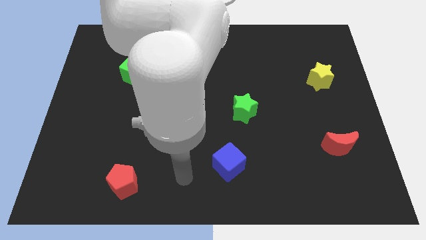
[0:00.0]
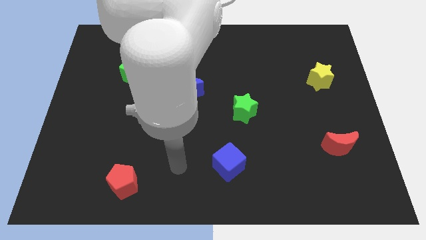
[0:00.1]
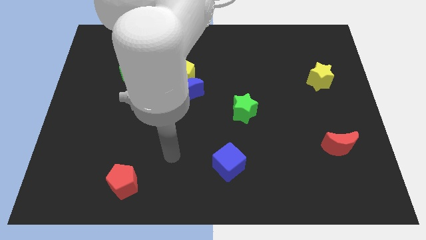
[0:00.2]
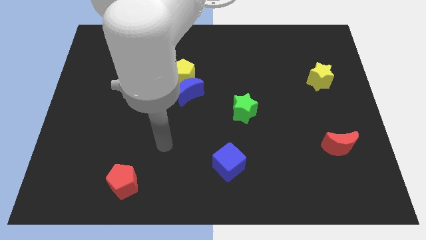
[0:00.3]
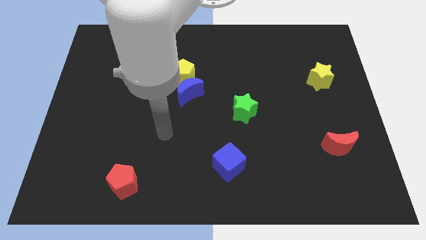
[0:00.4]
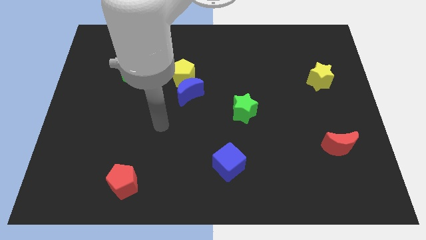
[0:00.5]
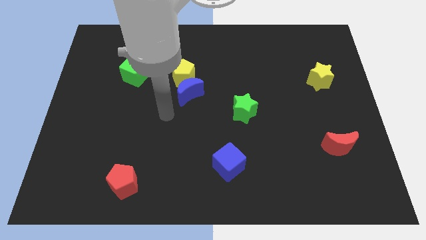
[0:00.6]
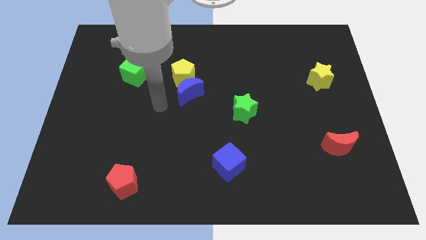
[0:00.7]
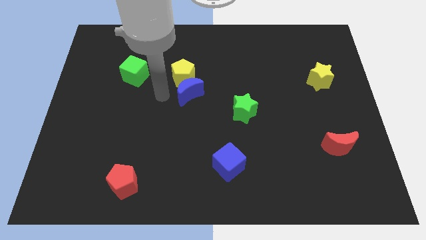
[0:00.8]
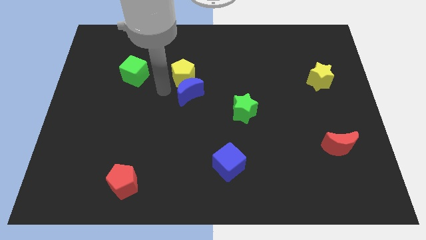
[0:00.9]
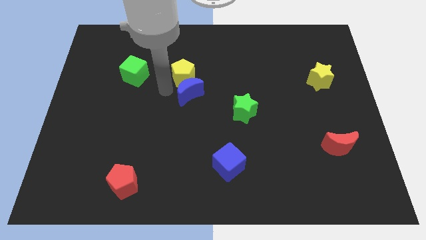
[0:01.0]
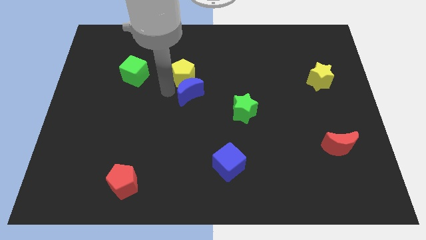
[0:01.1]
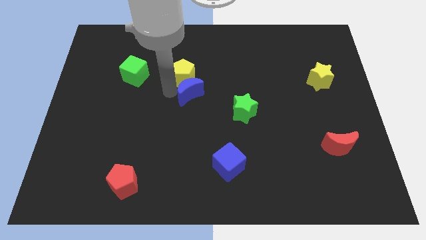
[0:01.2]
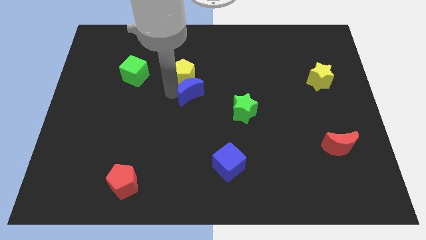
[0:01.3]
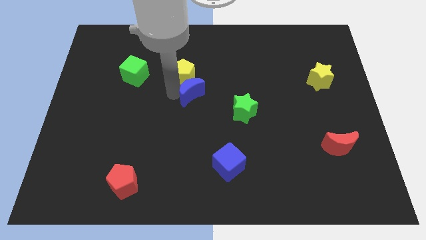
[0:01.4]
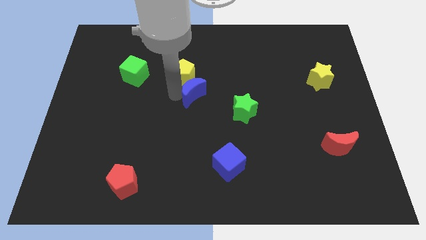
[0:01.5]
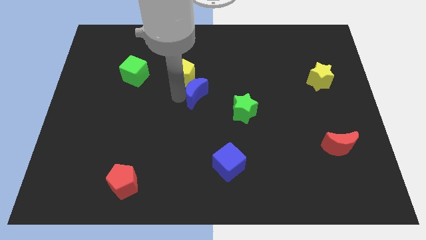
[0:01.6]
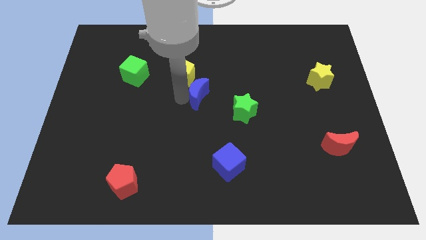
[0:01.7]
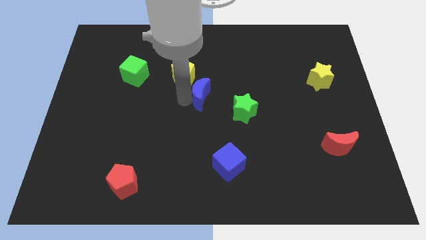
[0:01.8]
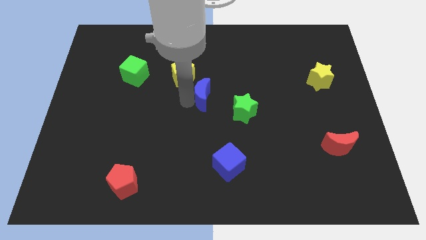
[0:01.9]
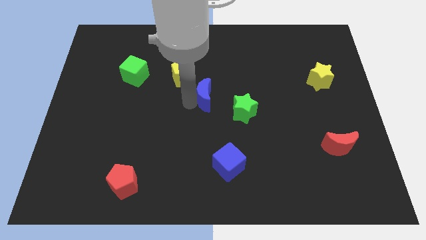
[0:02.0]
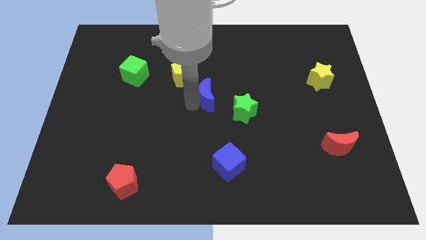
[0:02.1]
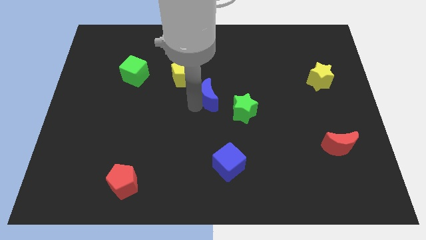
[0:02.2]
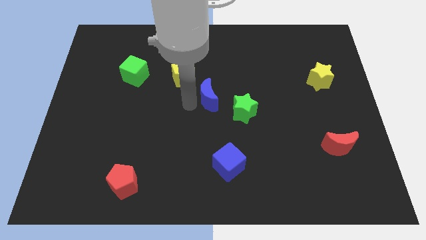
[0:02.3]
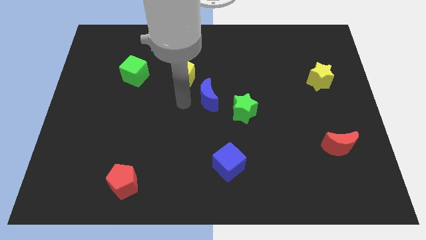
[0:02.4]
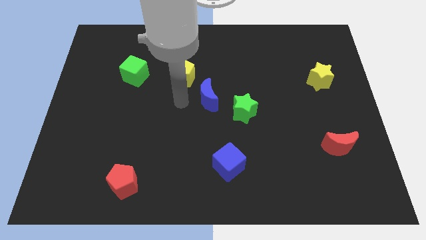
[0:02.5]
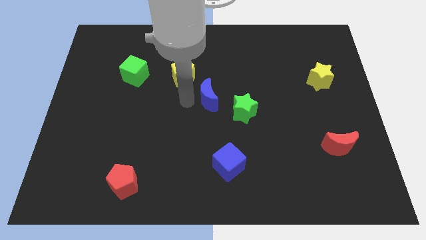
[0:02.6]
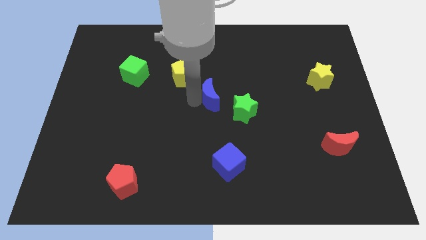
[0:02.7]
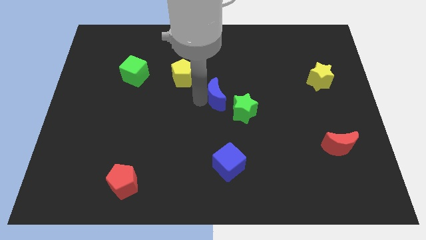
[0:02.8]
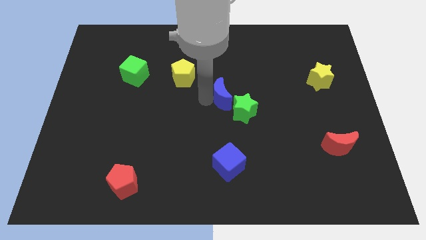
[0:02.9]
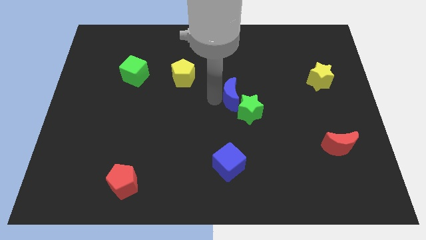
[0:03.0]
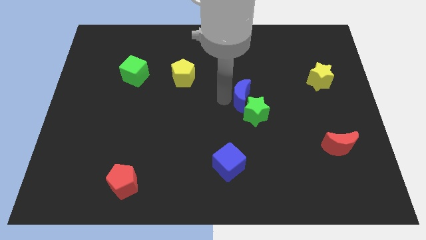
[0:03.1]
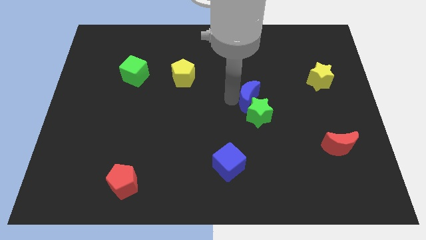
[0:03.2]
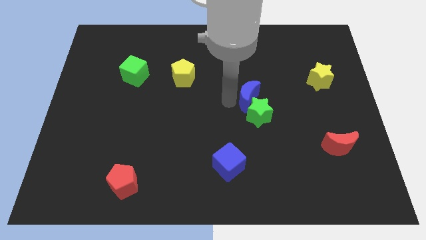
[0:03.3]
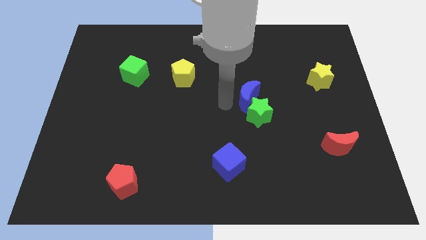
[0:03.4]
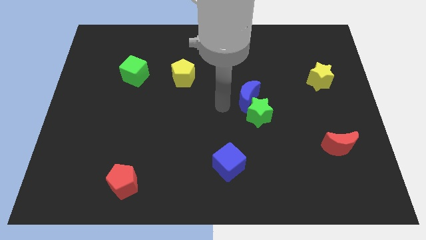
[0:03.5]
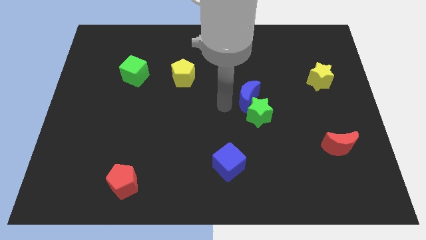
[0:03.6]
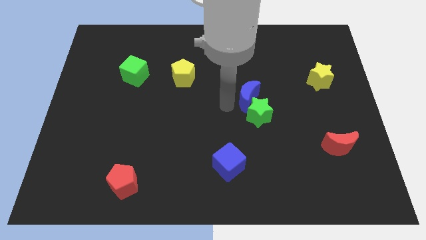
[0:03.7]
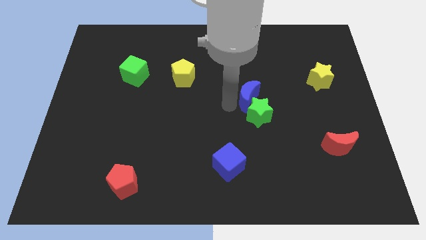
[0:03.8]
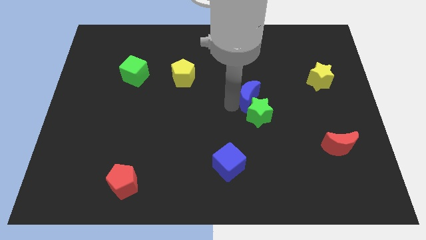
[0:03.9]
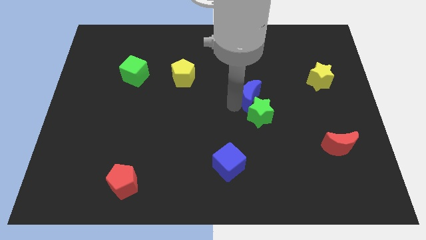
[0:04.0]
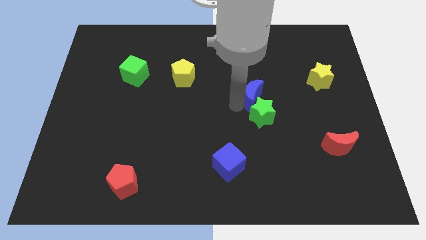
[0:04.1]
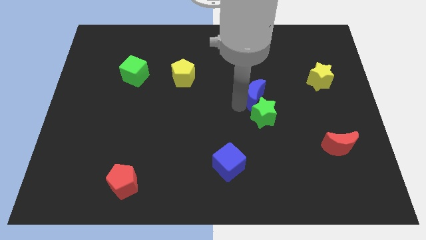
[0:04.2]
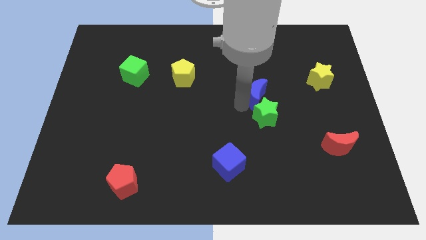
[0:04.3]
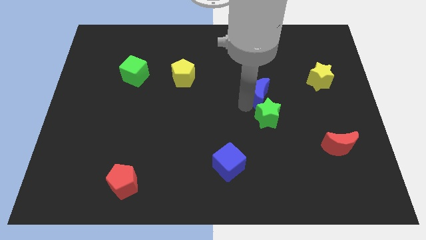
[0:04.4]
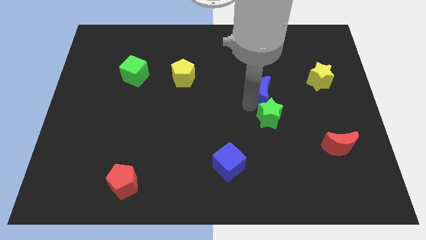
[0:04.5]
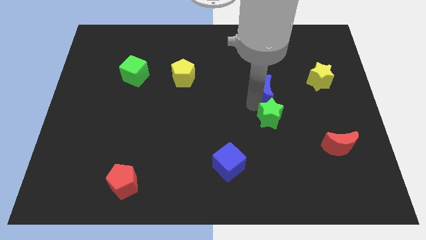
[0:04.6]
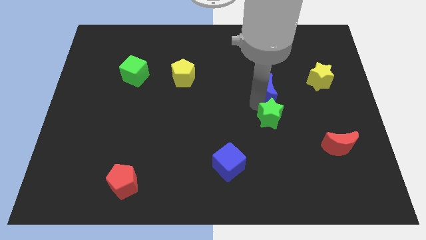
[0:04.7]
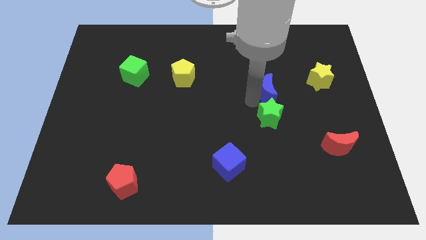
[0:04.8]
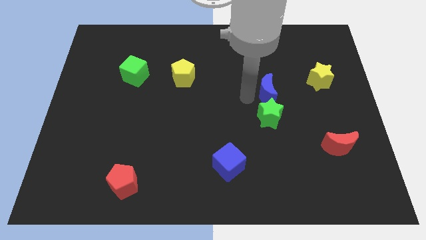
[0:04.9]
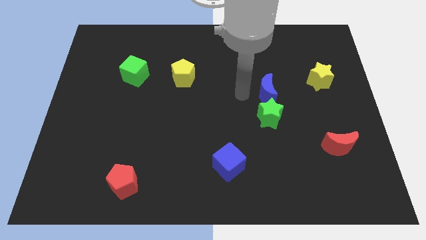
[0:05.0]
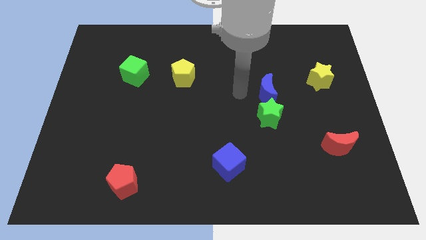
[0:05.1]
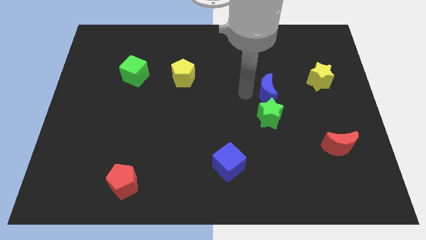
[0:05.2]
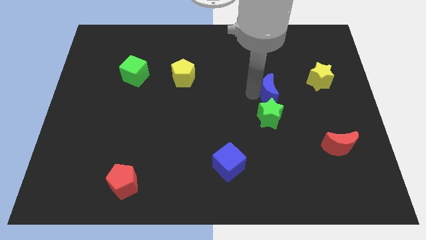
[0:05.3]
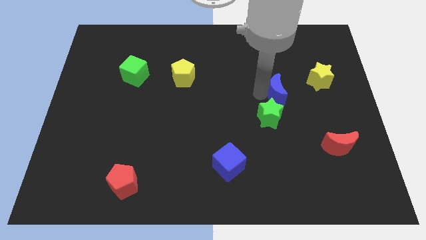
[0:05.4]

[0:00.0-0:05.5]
slide the blue moon right

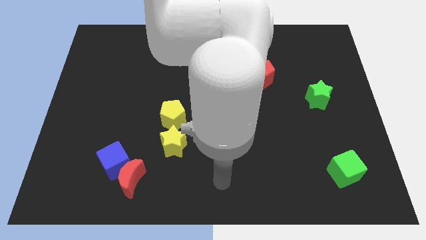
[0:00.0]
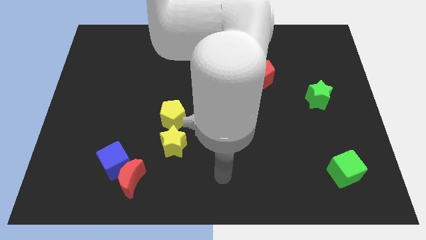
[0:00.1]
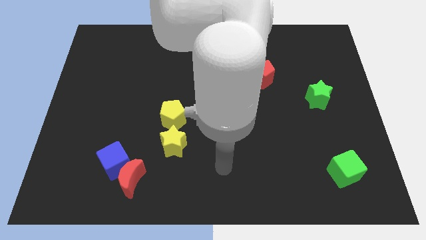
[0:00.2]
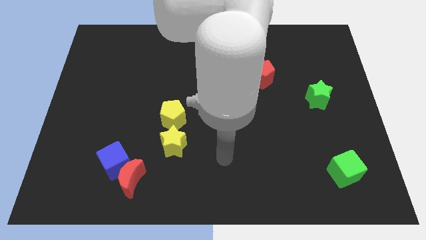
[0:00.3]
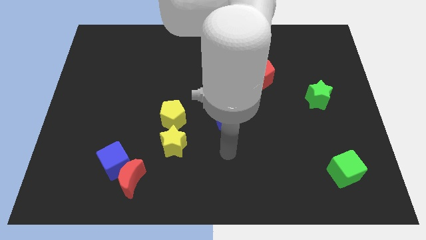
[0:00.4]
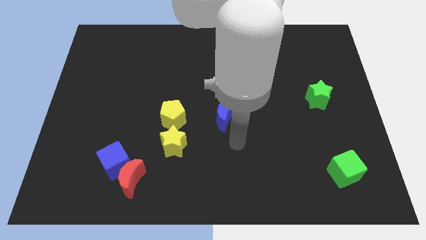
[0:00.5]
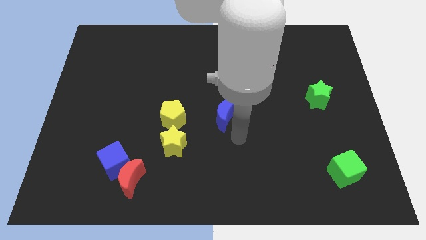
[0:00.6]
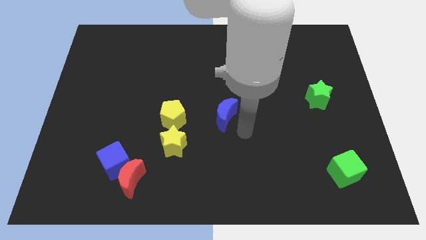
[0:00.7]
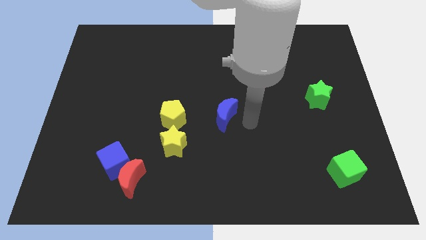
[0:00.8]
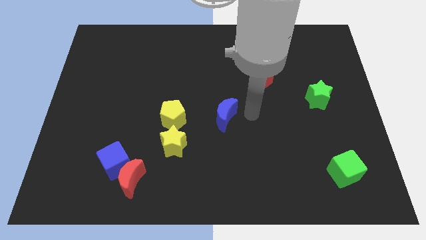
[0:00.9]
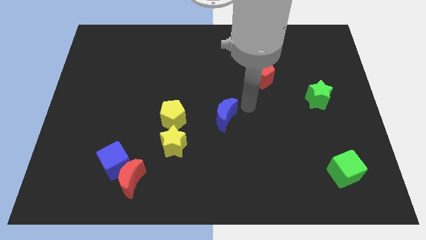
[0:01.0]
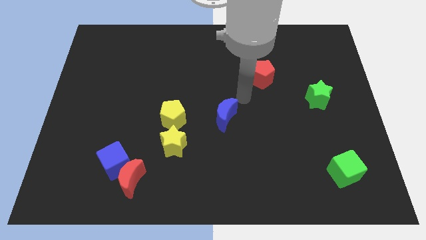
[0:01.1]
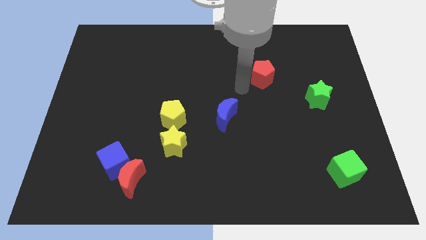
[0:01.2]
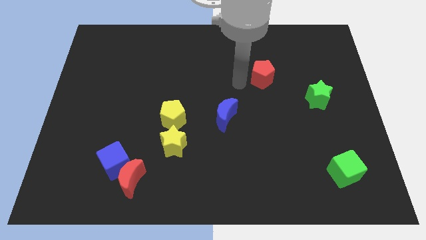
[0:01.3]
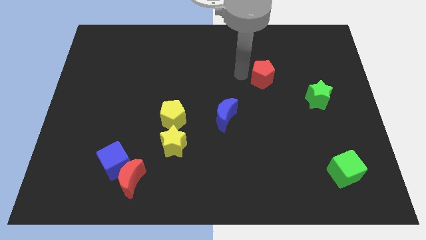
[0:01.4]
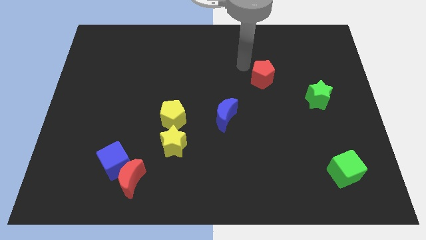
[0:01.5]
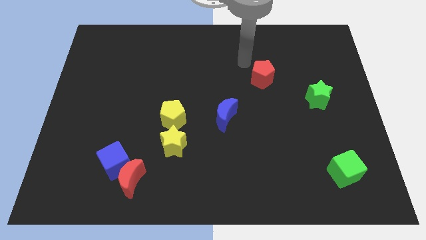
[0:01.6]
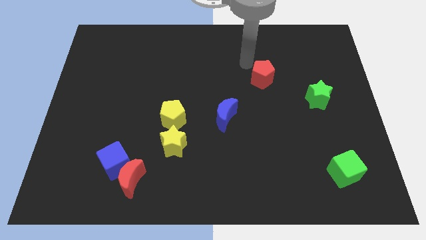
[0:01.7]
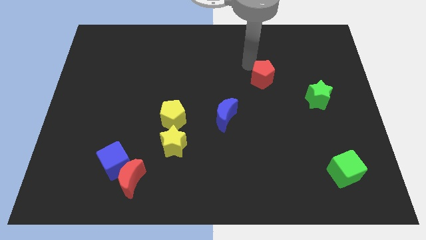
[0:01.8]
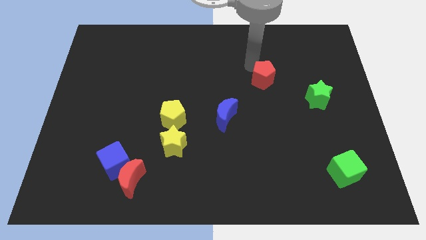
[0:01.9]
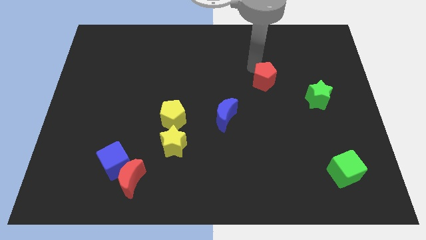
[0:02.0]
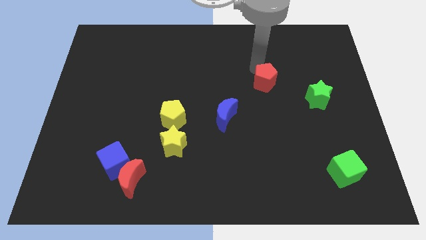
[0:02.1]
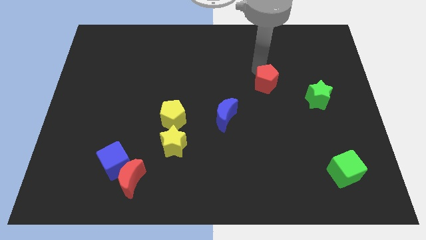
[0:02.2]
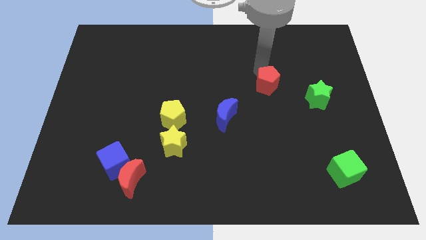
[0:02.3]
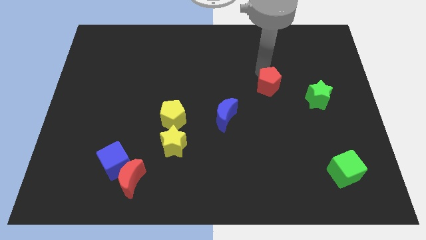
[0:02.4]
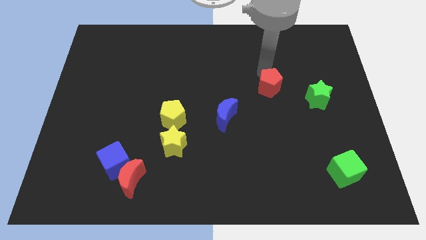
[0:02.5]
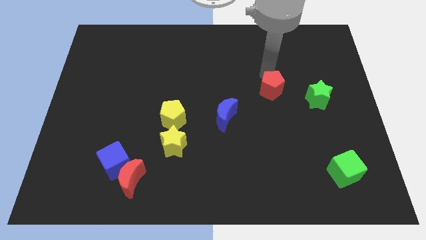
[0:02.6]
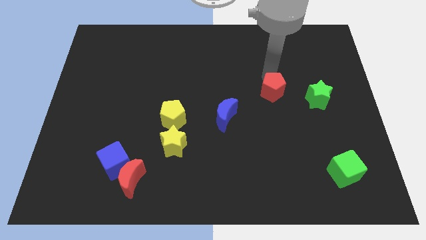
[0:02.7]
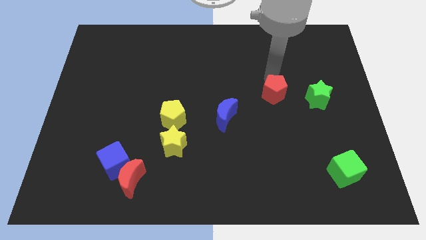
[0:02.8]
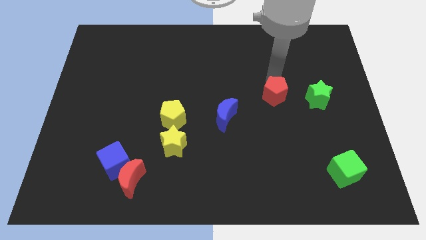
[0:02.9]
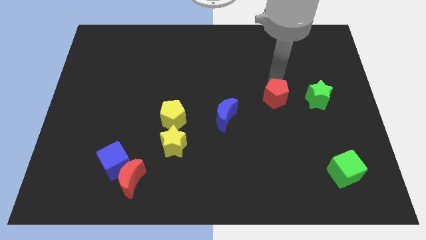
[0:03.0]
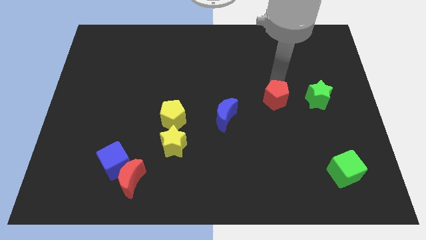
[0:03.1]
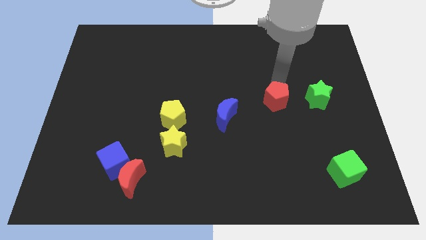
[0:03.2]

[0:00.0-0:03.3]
push the red pentagon slightly downwards and right
